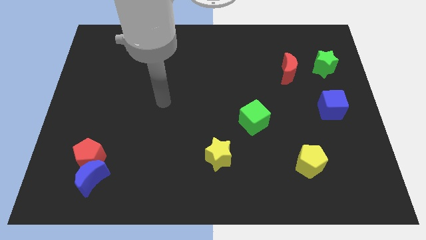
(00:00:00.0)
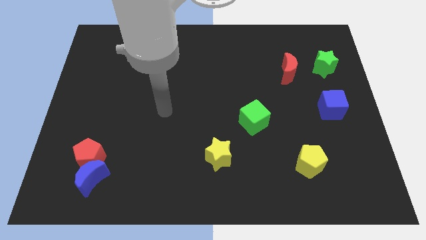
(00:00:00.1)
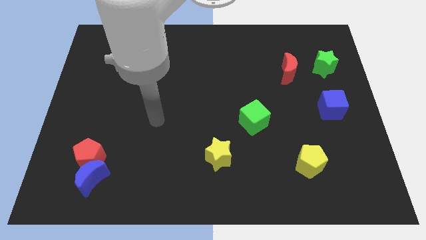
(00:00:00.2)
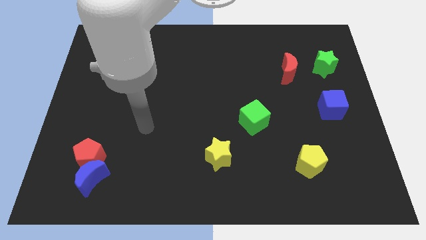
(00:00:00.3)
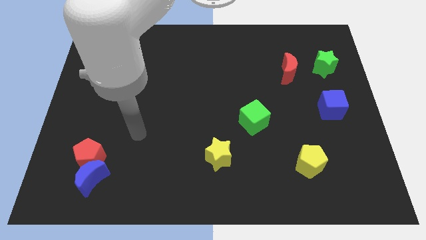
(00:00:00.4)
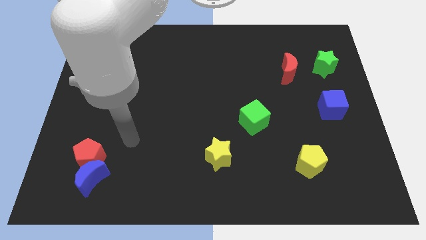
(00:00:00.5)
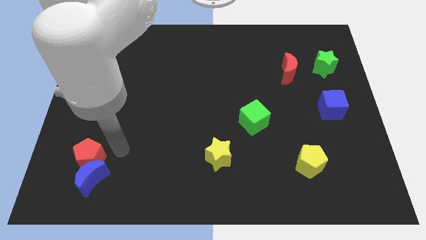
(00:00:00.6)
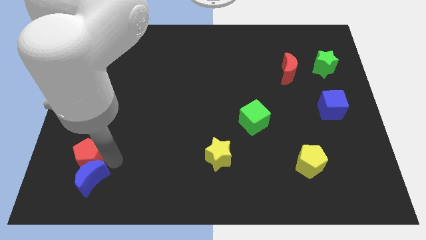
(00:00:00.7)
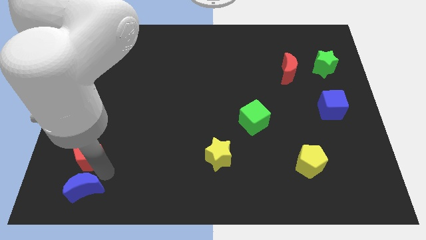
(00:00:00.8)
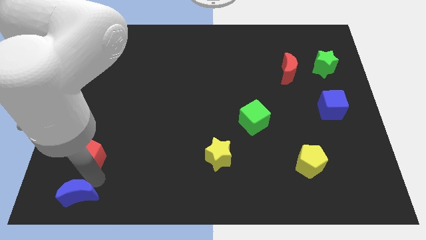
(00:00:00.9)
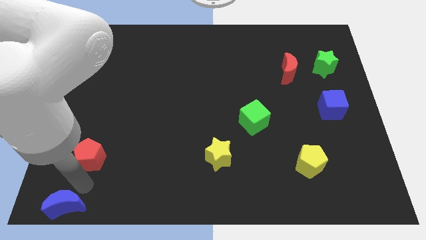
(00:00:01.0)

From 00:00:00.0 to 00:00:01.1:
move the red pentagon away from the blue moon

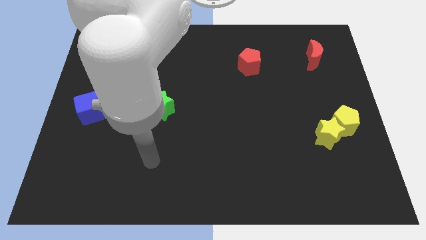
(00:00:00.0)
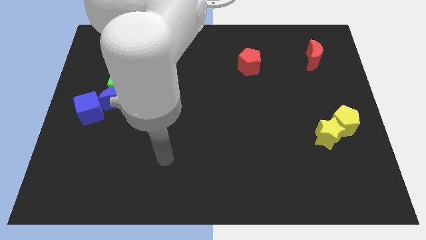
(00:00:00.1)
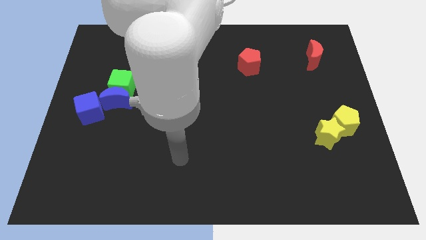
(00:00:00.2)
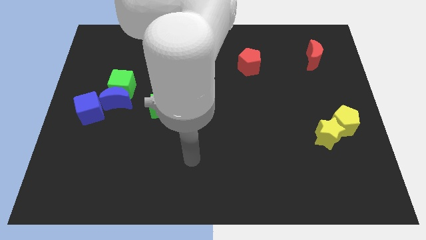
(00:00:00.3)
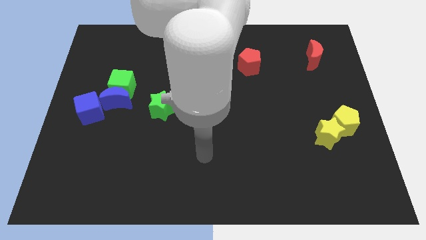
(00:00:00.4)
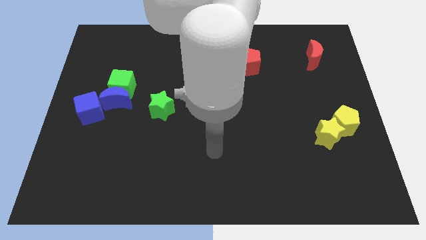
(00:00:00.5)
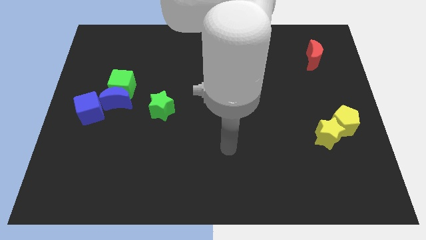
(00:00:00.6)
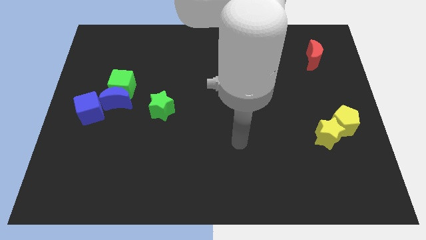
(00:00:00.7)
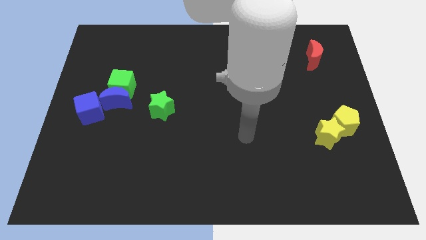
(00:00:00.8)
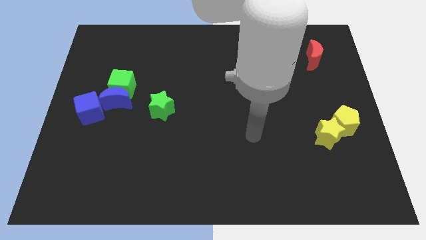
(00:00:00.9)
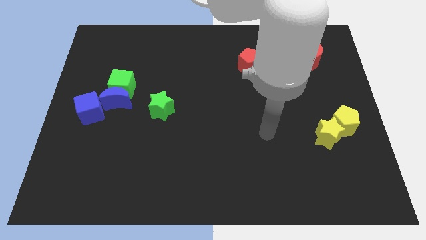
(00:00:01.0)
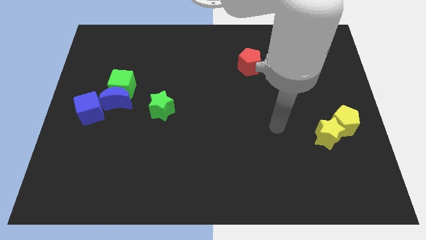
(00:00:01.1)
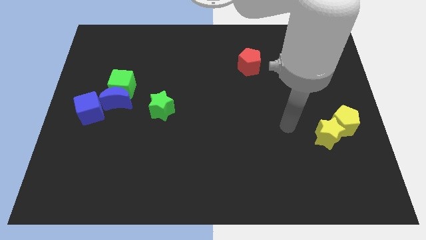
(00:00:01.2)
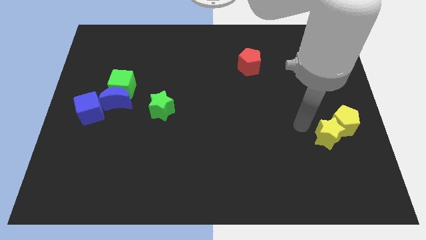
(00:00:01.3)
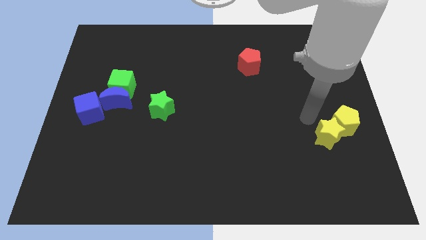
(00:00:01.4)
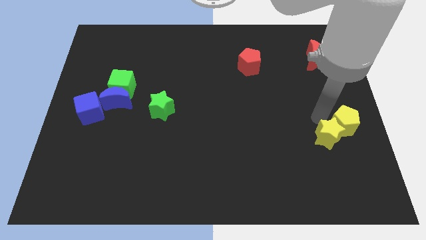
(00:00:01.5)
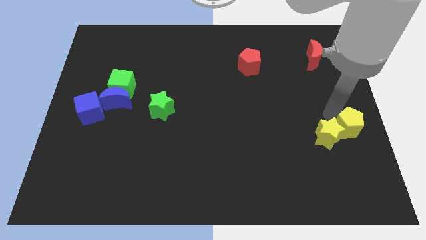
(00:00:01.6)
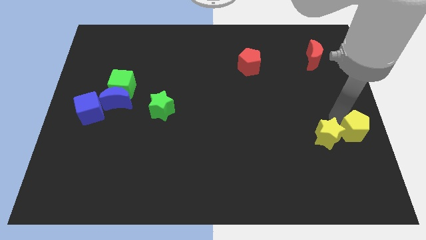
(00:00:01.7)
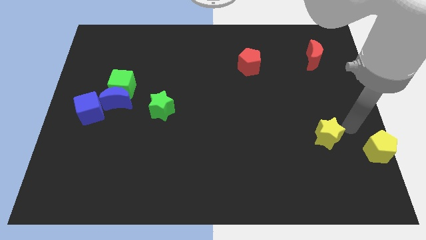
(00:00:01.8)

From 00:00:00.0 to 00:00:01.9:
pull the yellow star apart from the yellow pentagon

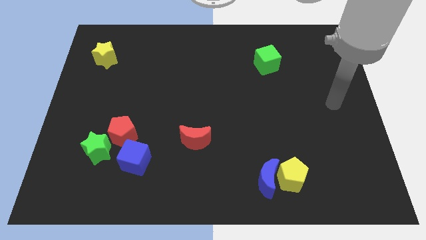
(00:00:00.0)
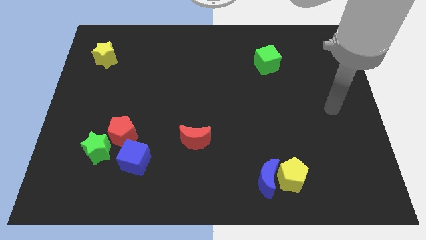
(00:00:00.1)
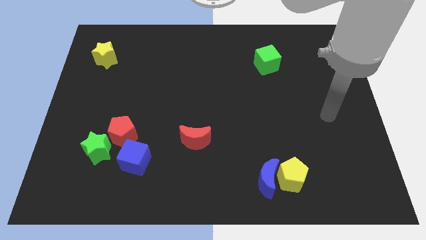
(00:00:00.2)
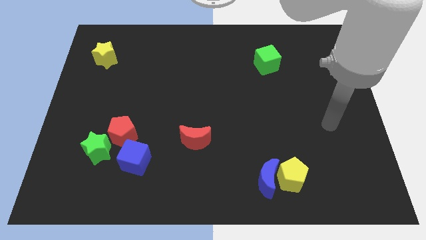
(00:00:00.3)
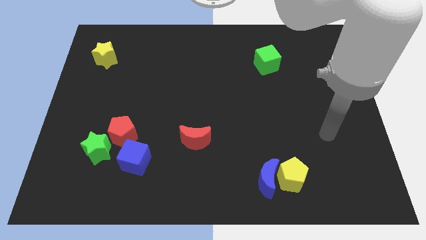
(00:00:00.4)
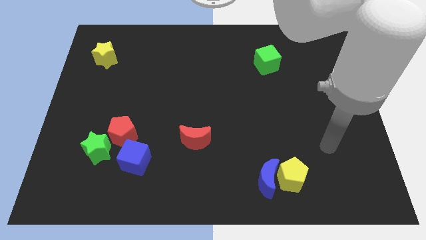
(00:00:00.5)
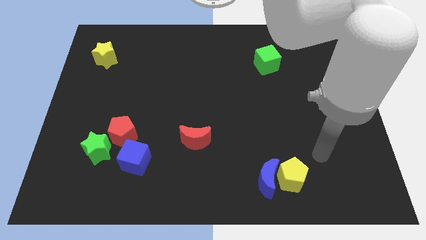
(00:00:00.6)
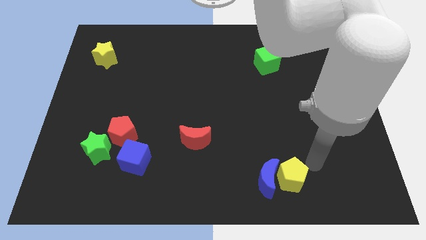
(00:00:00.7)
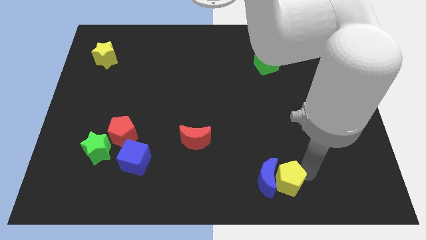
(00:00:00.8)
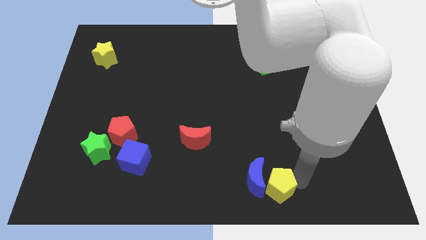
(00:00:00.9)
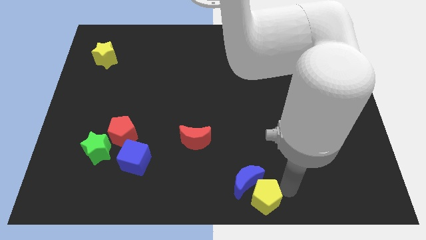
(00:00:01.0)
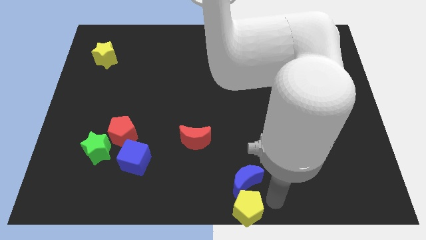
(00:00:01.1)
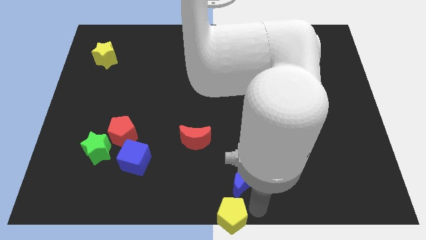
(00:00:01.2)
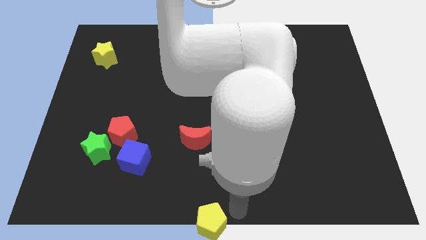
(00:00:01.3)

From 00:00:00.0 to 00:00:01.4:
separate the blue moon from the yellow pentagon

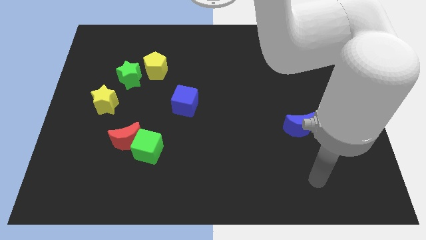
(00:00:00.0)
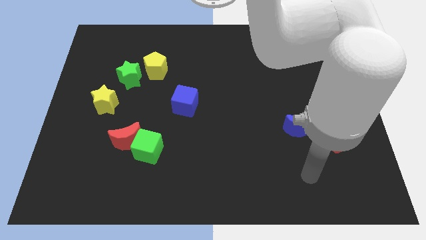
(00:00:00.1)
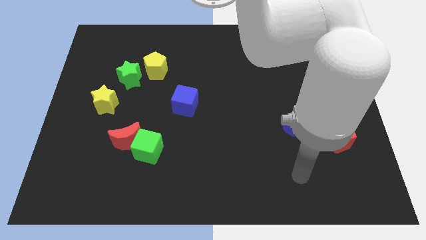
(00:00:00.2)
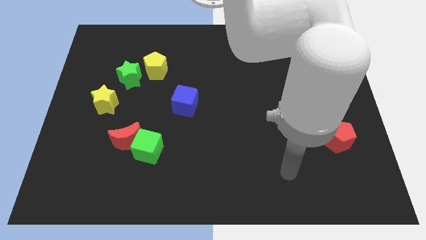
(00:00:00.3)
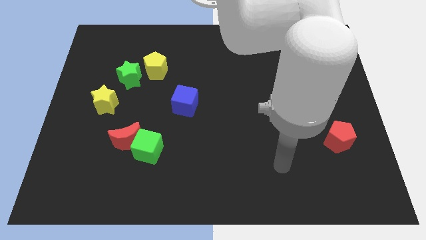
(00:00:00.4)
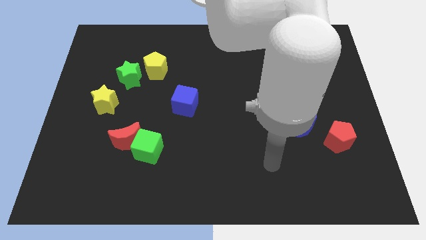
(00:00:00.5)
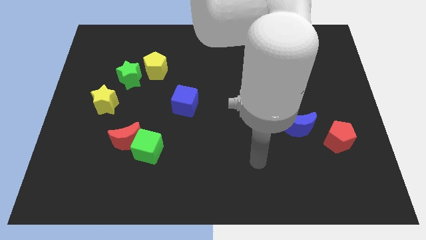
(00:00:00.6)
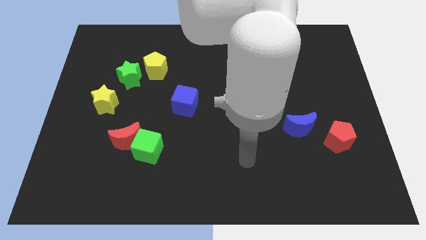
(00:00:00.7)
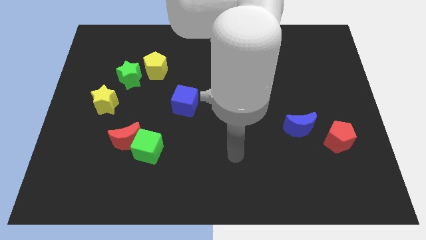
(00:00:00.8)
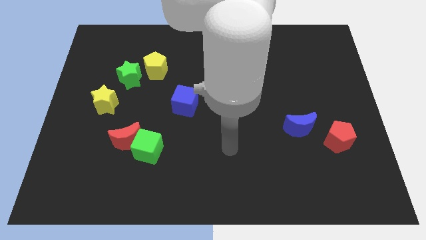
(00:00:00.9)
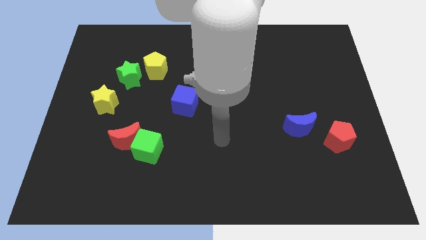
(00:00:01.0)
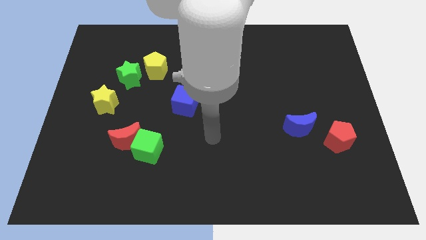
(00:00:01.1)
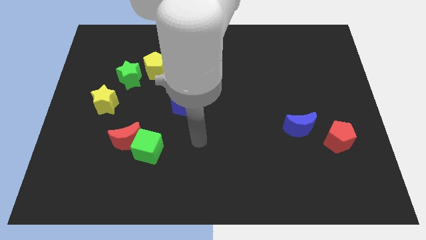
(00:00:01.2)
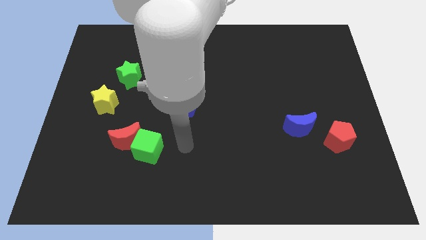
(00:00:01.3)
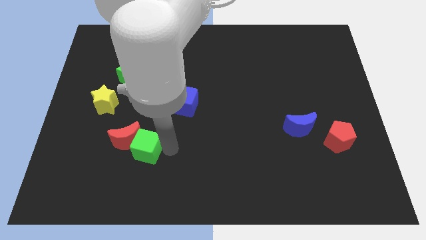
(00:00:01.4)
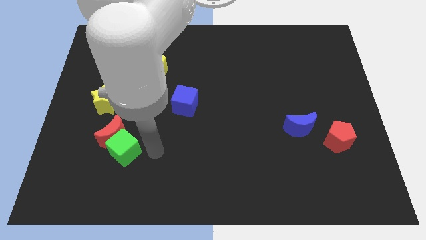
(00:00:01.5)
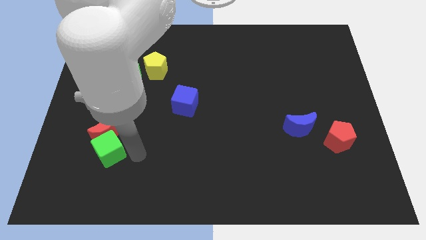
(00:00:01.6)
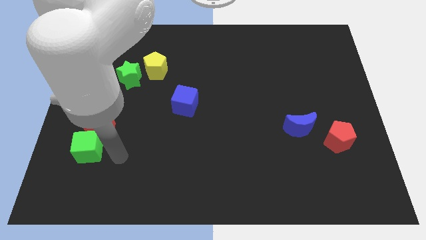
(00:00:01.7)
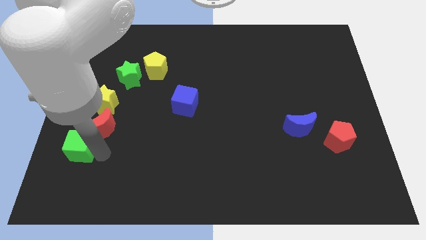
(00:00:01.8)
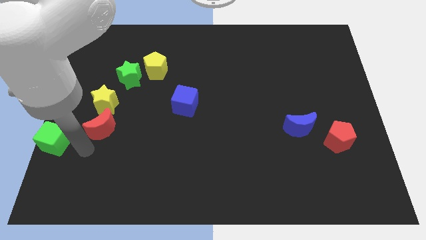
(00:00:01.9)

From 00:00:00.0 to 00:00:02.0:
move the red moon away from the green cube

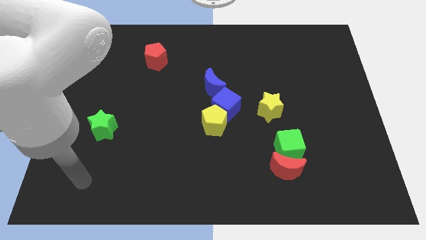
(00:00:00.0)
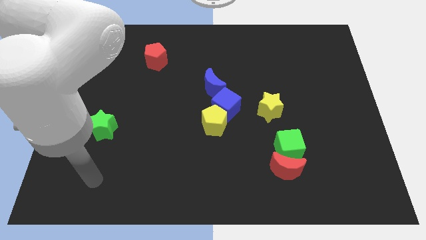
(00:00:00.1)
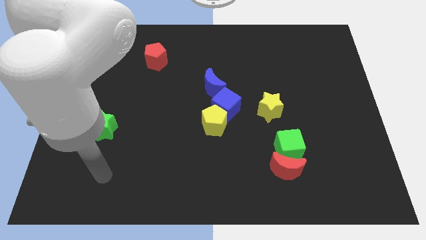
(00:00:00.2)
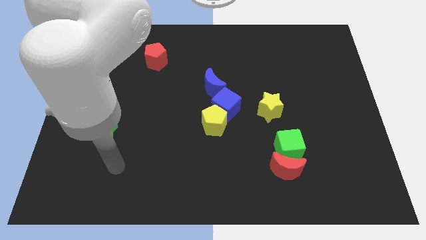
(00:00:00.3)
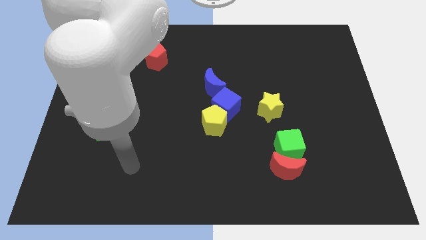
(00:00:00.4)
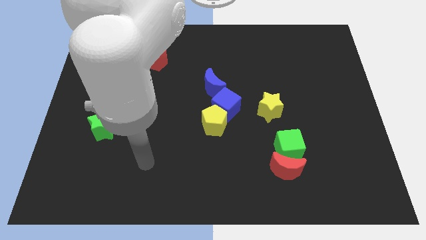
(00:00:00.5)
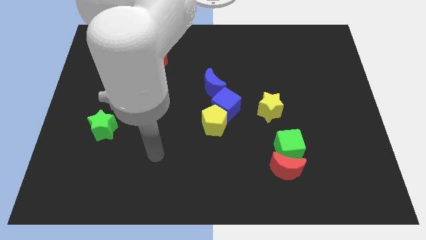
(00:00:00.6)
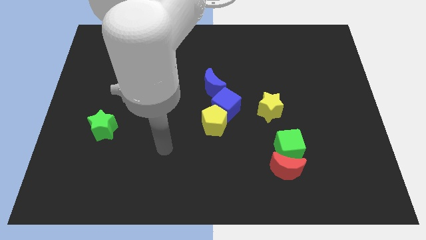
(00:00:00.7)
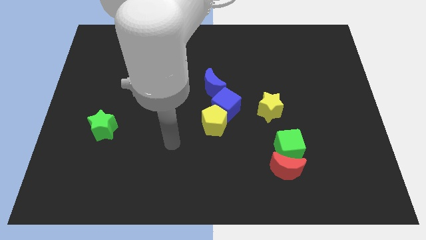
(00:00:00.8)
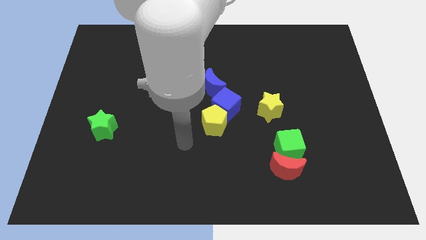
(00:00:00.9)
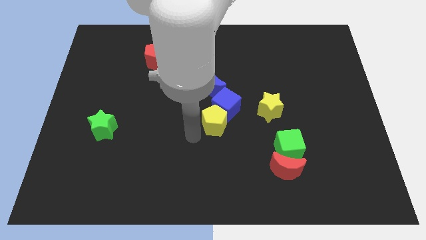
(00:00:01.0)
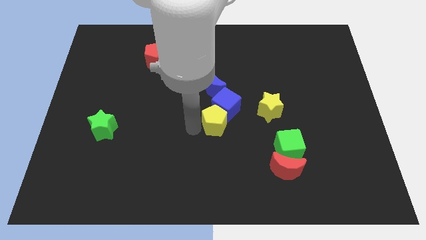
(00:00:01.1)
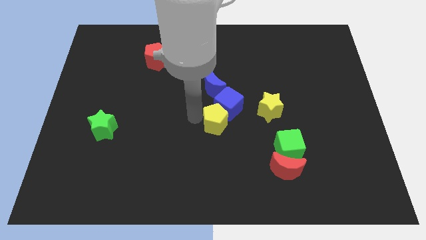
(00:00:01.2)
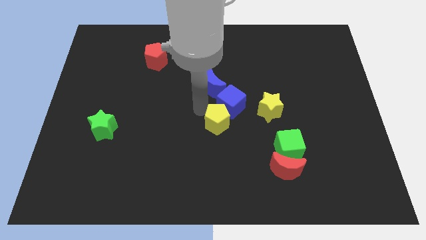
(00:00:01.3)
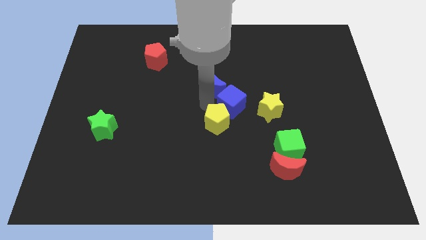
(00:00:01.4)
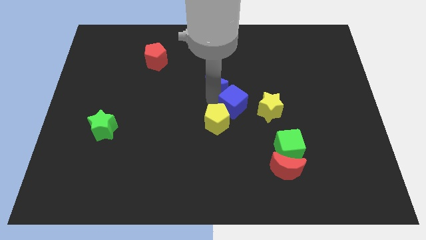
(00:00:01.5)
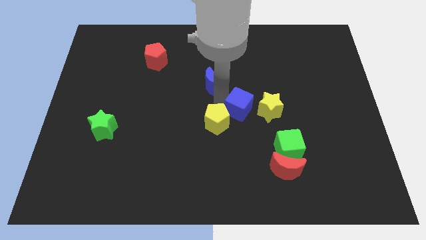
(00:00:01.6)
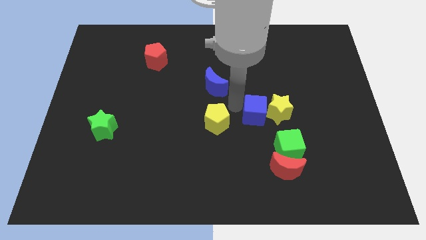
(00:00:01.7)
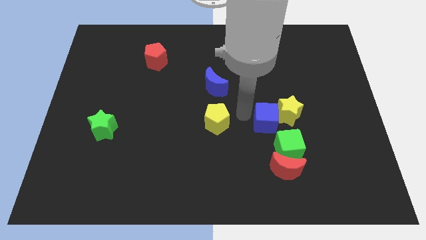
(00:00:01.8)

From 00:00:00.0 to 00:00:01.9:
pull the yellow pentagon apart from the blue cube

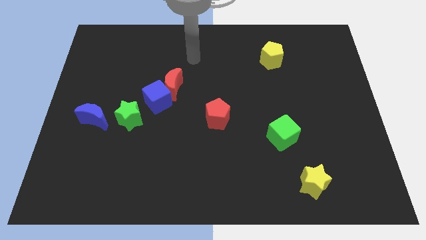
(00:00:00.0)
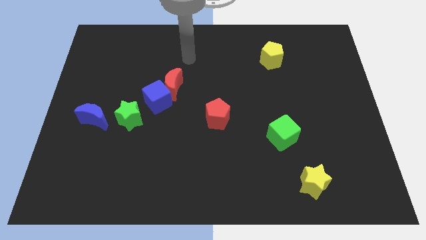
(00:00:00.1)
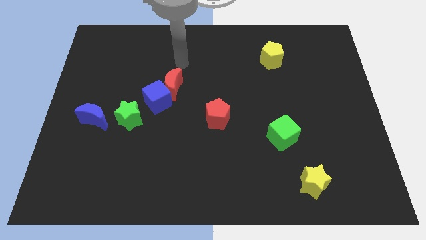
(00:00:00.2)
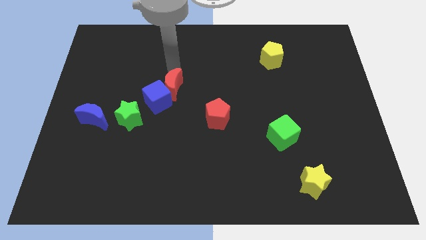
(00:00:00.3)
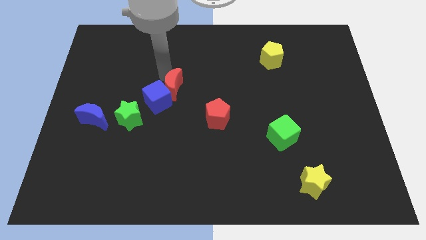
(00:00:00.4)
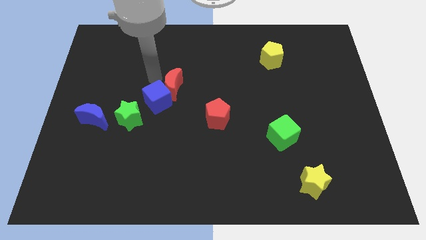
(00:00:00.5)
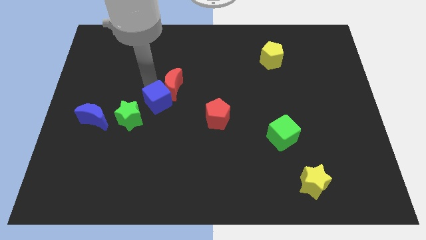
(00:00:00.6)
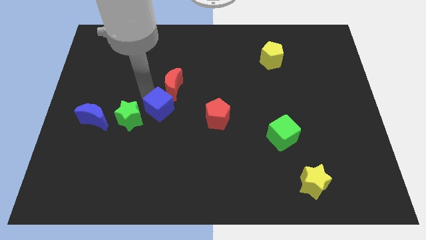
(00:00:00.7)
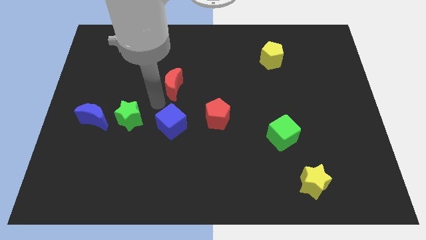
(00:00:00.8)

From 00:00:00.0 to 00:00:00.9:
separate the red moon from the blue cube

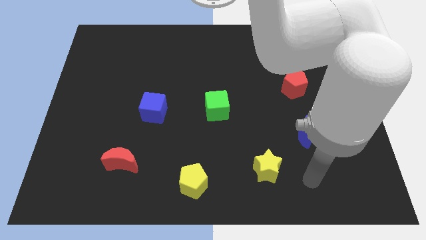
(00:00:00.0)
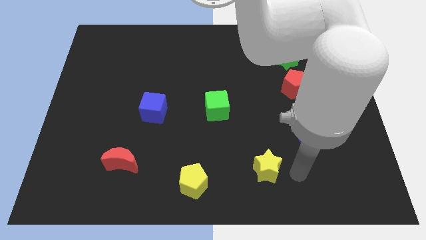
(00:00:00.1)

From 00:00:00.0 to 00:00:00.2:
pull the red pentagon apart from the green star
